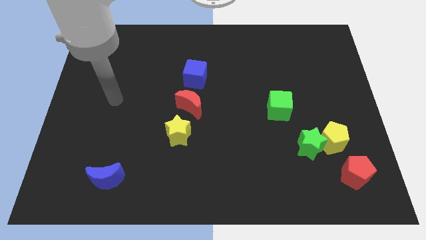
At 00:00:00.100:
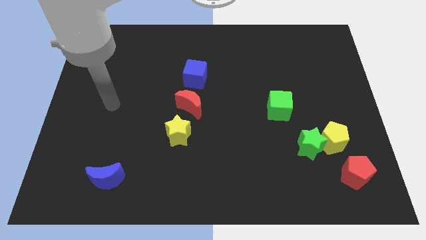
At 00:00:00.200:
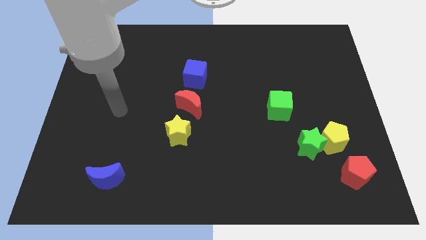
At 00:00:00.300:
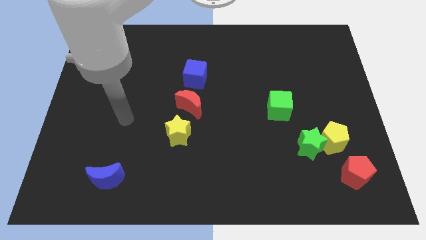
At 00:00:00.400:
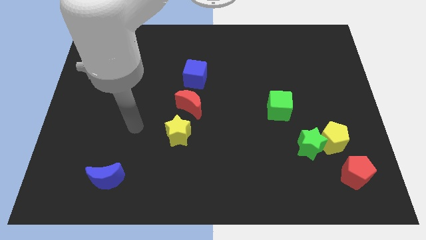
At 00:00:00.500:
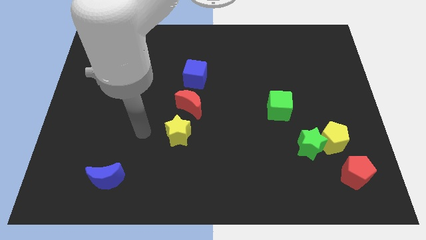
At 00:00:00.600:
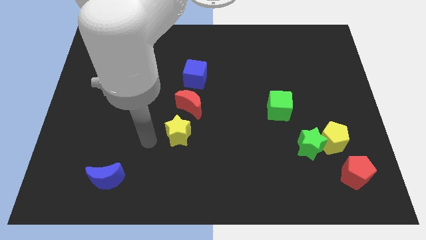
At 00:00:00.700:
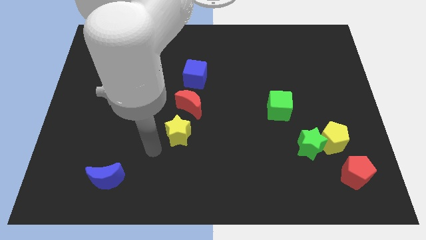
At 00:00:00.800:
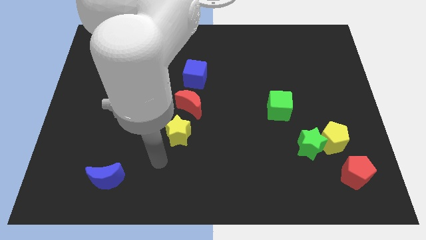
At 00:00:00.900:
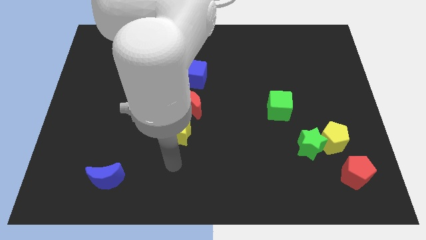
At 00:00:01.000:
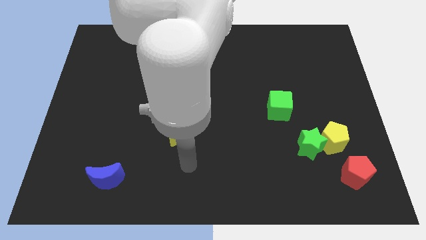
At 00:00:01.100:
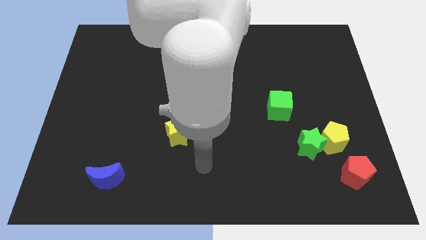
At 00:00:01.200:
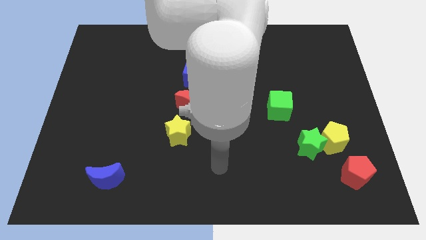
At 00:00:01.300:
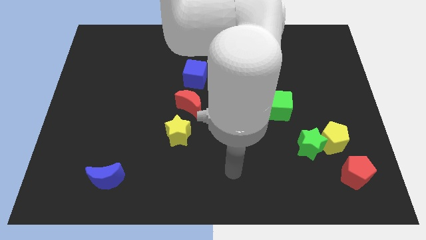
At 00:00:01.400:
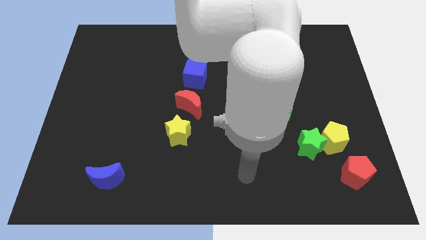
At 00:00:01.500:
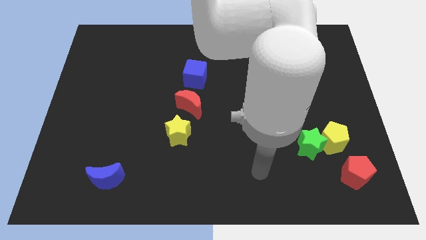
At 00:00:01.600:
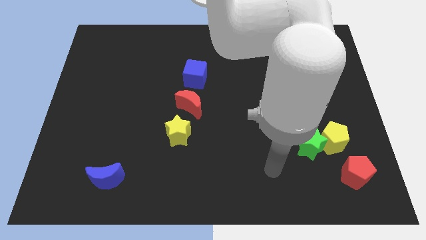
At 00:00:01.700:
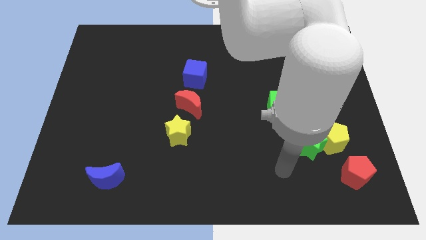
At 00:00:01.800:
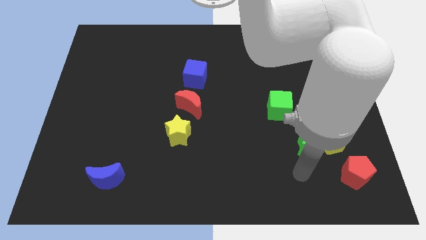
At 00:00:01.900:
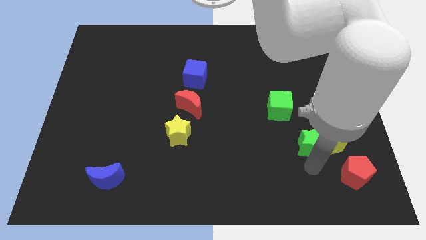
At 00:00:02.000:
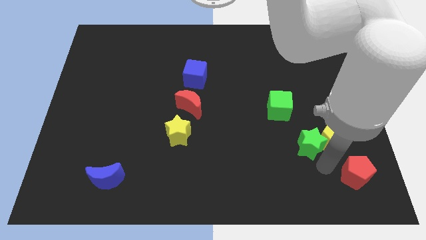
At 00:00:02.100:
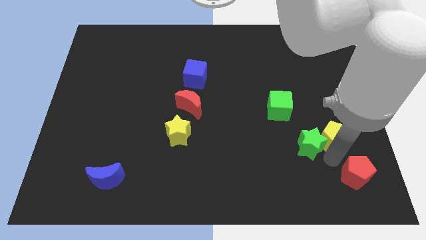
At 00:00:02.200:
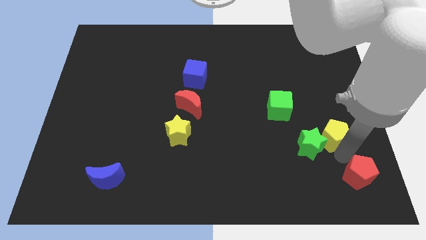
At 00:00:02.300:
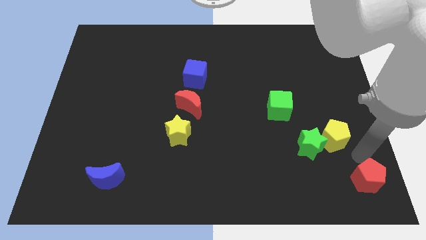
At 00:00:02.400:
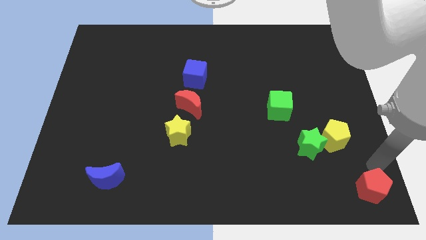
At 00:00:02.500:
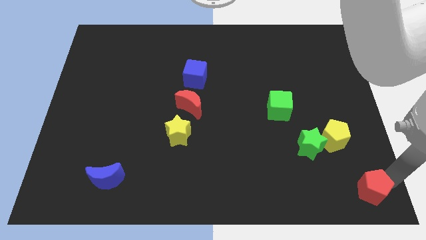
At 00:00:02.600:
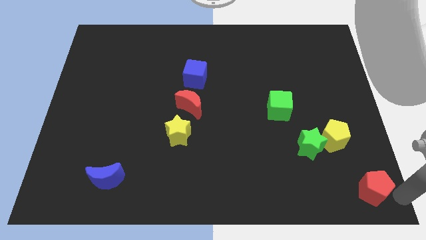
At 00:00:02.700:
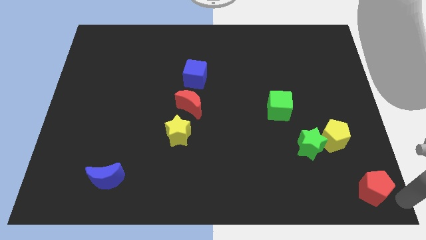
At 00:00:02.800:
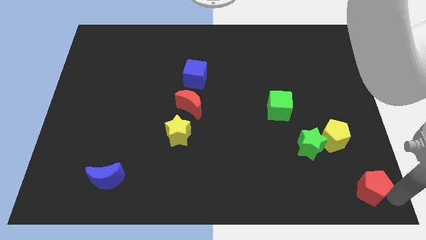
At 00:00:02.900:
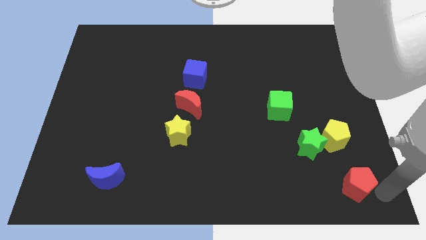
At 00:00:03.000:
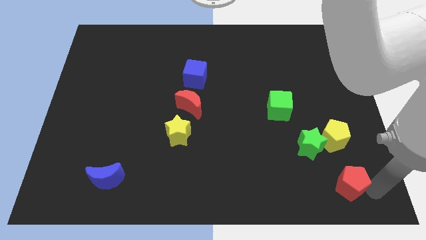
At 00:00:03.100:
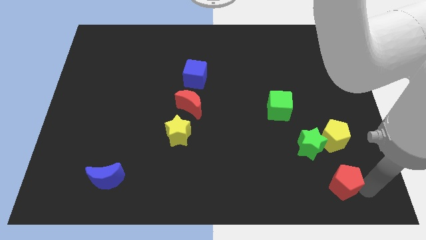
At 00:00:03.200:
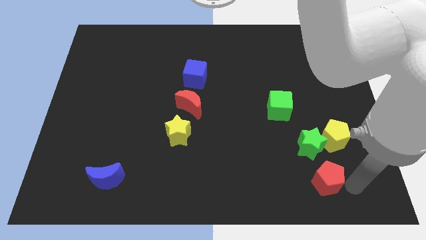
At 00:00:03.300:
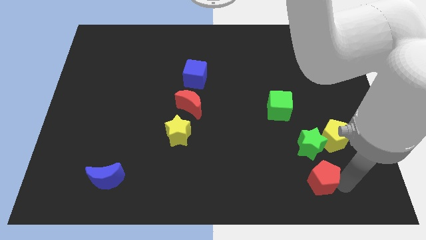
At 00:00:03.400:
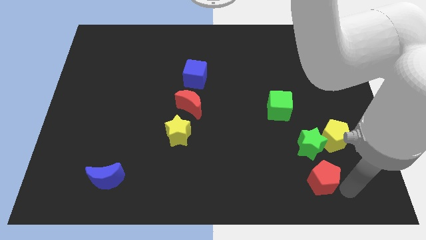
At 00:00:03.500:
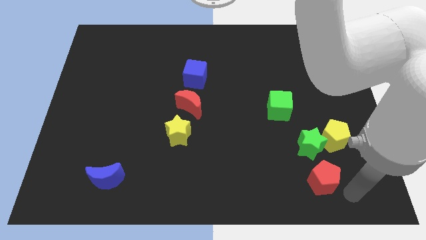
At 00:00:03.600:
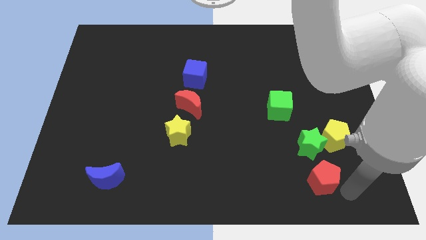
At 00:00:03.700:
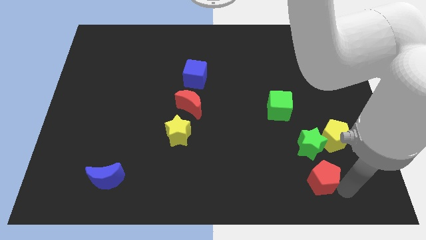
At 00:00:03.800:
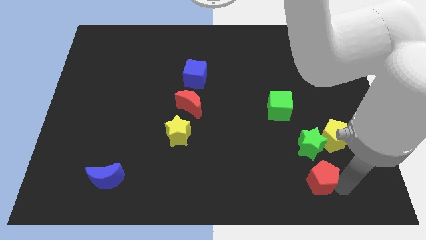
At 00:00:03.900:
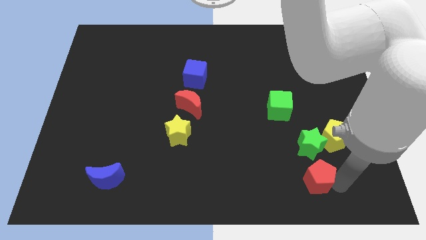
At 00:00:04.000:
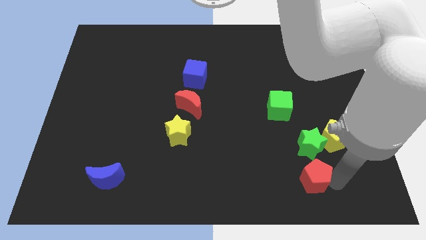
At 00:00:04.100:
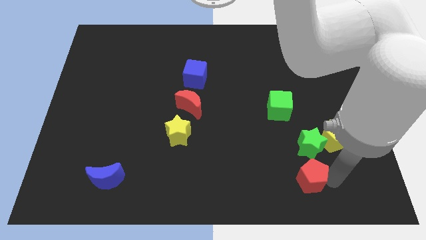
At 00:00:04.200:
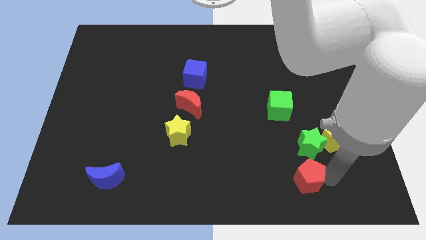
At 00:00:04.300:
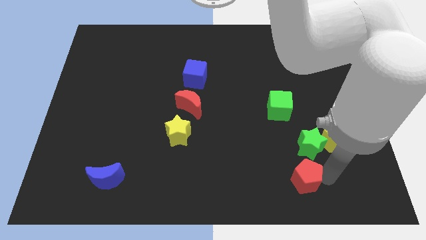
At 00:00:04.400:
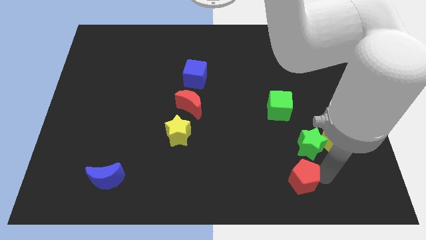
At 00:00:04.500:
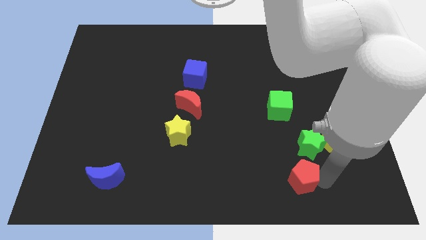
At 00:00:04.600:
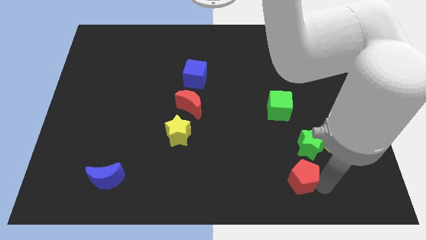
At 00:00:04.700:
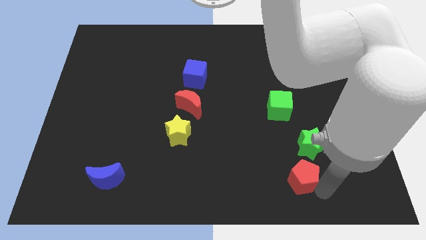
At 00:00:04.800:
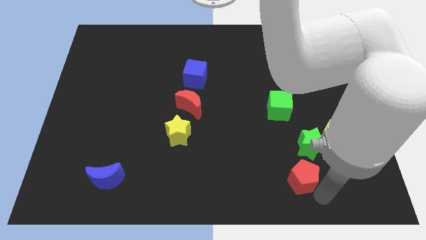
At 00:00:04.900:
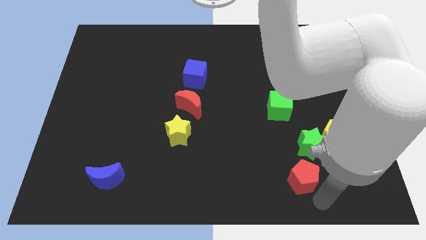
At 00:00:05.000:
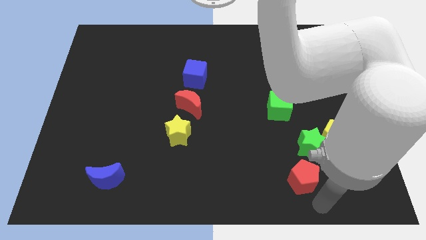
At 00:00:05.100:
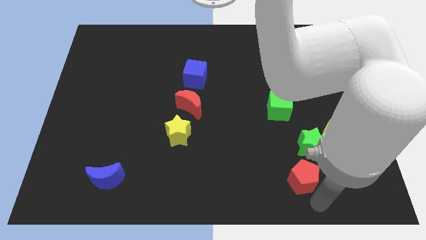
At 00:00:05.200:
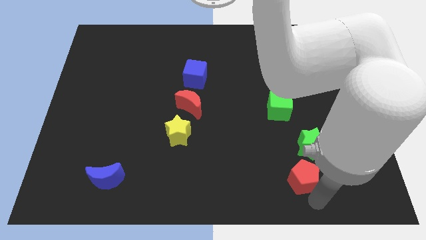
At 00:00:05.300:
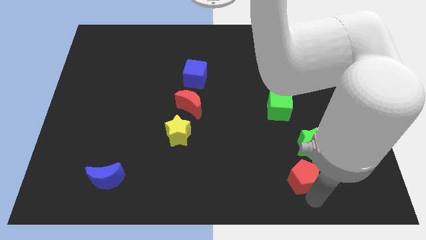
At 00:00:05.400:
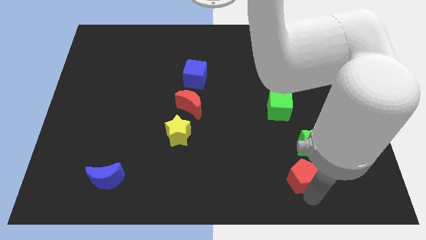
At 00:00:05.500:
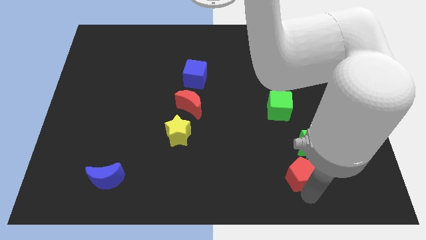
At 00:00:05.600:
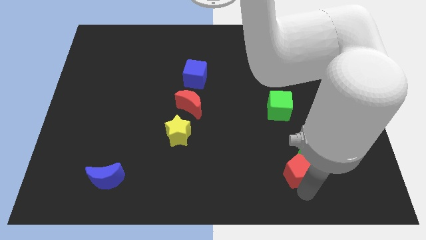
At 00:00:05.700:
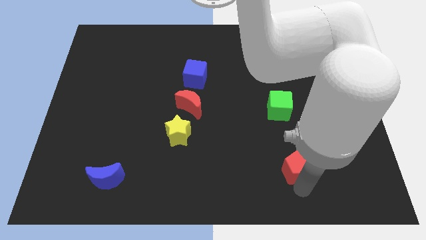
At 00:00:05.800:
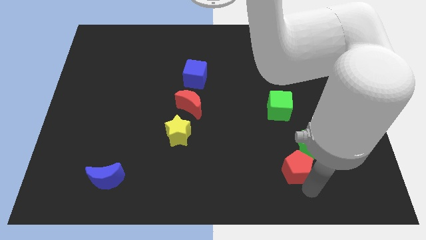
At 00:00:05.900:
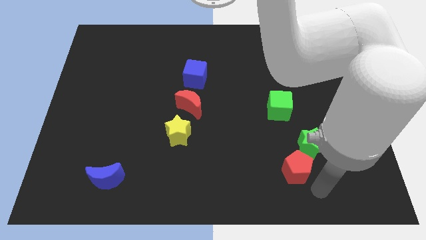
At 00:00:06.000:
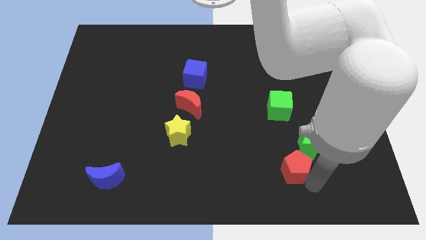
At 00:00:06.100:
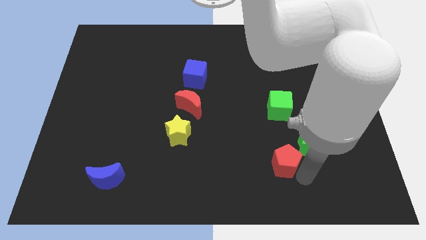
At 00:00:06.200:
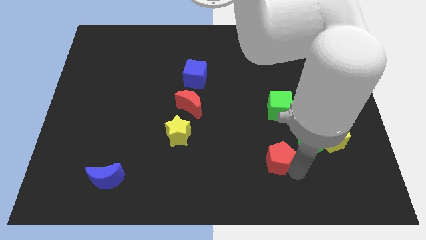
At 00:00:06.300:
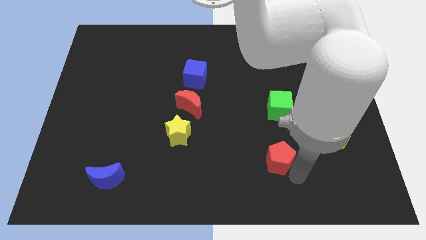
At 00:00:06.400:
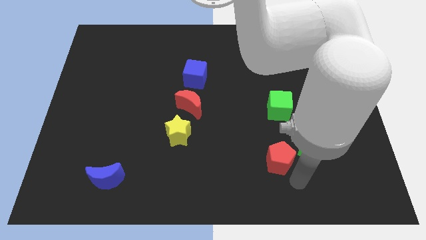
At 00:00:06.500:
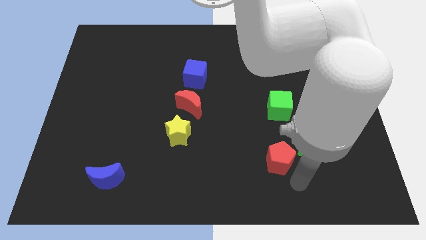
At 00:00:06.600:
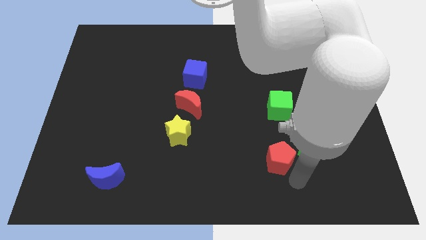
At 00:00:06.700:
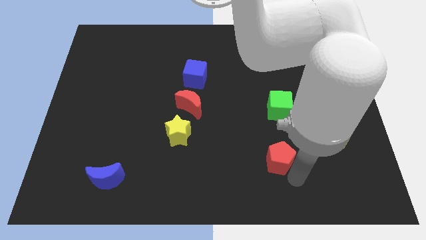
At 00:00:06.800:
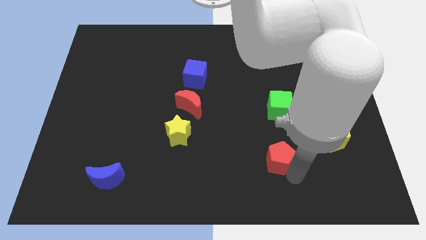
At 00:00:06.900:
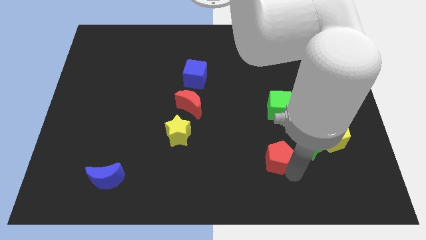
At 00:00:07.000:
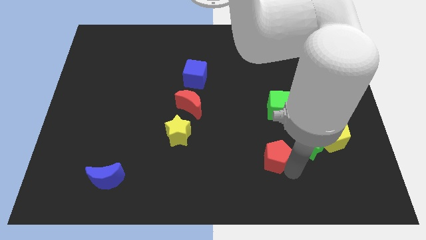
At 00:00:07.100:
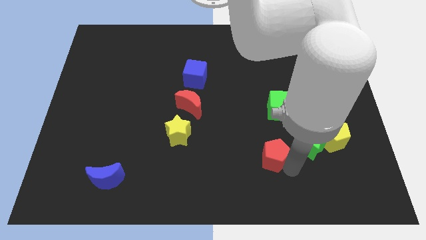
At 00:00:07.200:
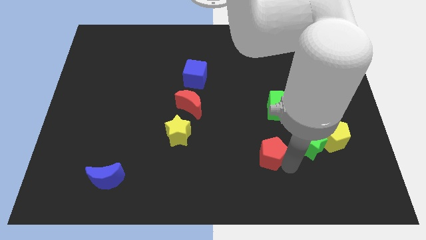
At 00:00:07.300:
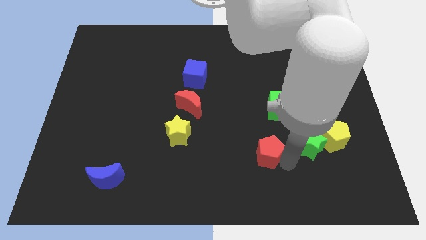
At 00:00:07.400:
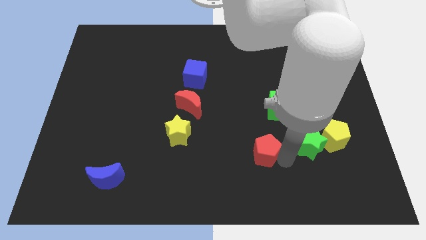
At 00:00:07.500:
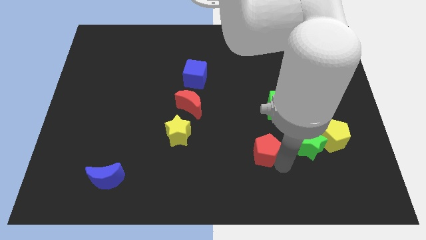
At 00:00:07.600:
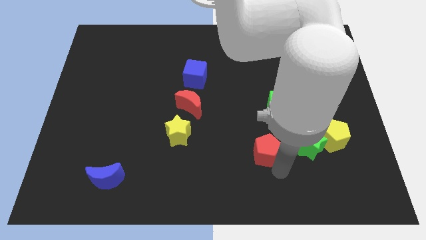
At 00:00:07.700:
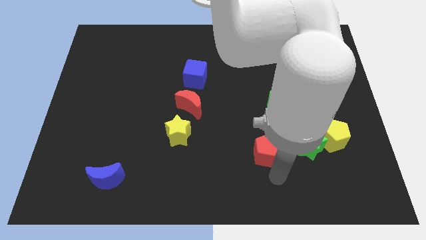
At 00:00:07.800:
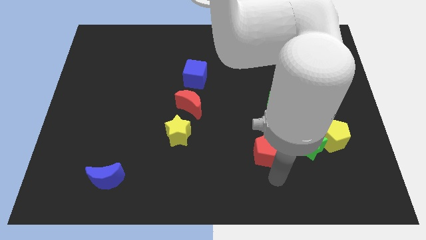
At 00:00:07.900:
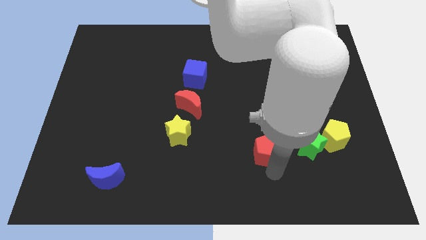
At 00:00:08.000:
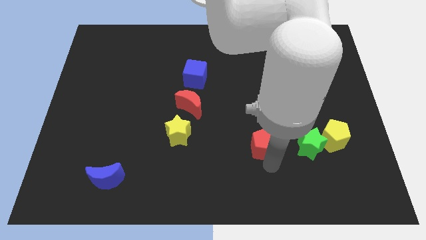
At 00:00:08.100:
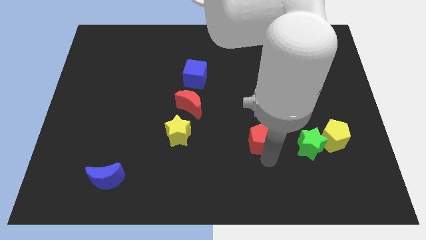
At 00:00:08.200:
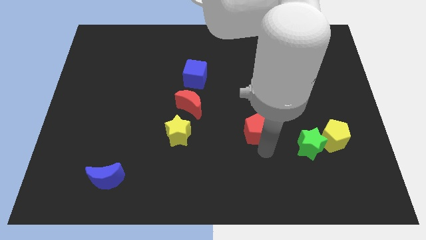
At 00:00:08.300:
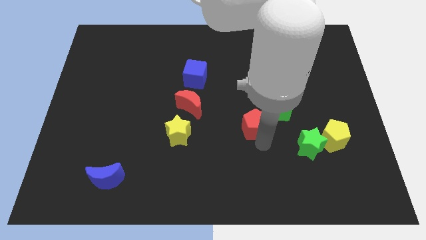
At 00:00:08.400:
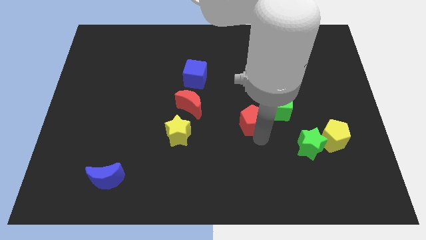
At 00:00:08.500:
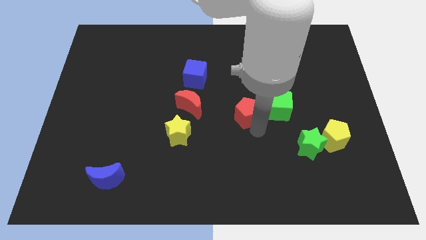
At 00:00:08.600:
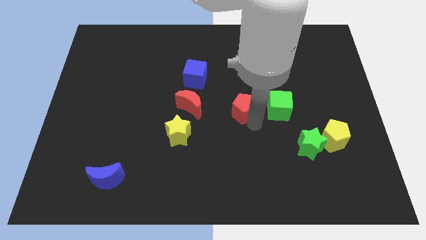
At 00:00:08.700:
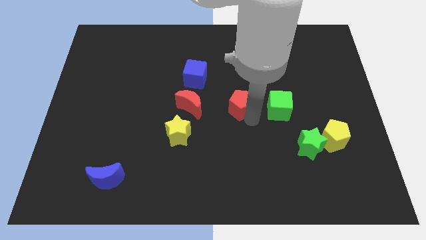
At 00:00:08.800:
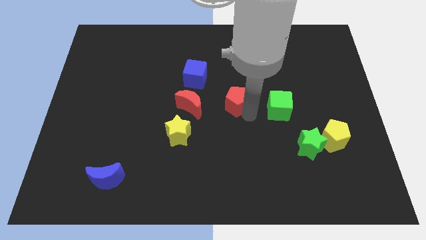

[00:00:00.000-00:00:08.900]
move the red pentagon diagonally down and to the right of the blue cube
